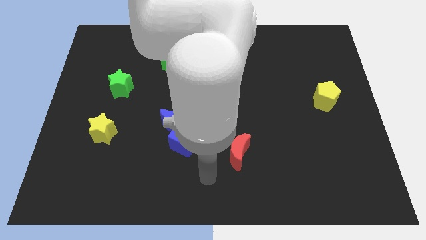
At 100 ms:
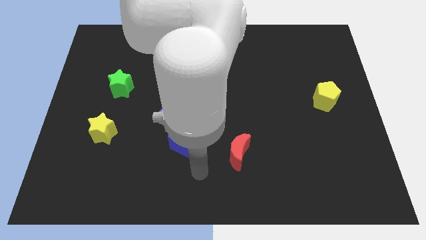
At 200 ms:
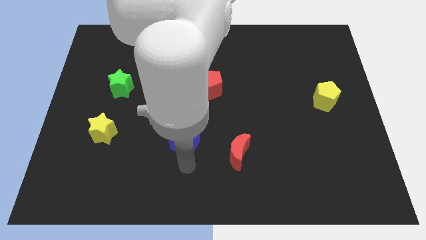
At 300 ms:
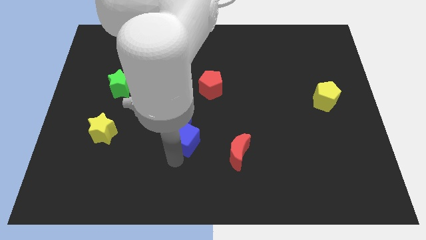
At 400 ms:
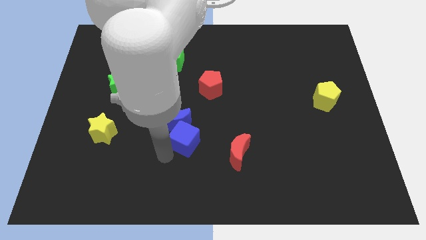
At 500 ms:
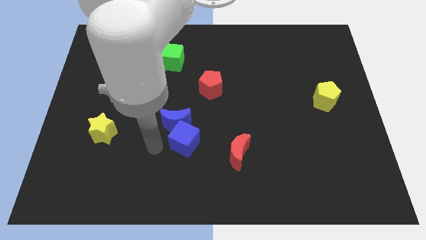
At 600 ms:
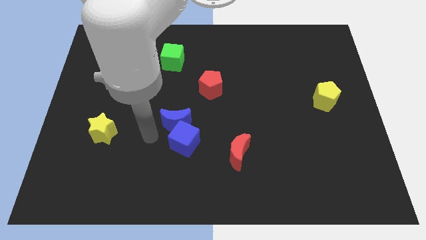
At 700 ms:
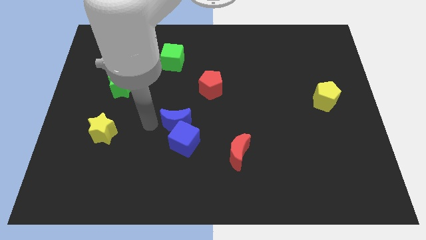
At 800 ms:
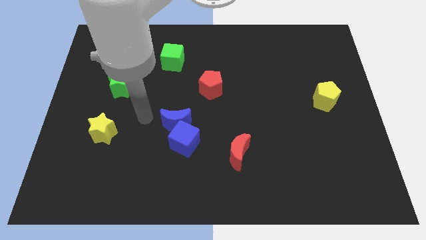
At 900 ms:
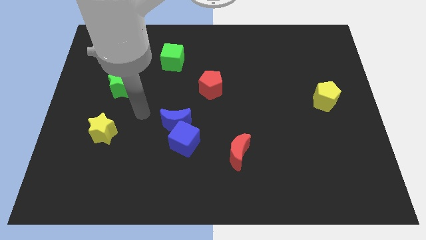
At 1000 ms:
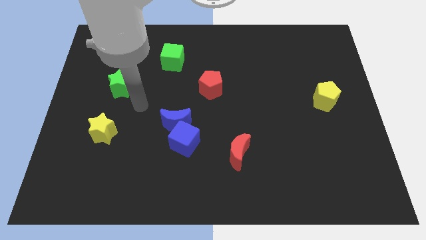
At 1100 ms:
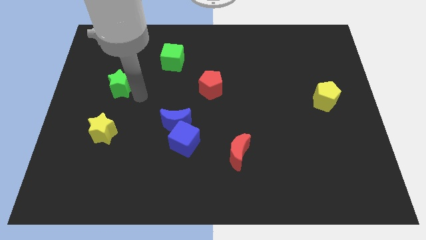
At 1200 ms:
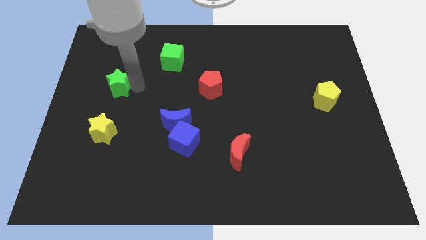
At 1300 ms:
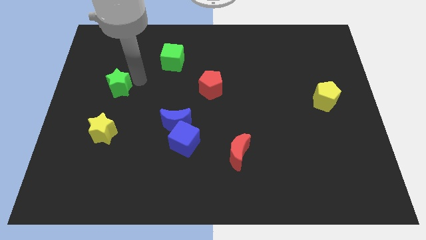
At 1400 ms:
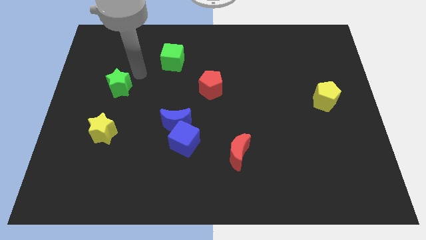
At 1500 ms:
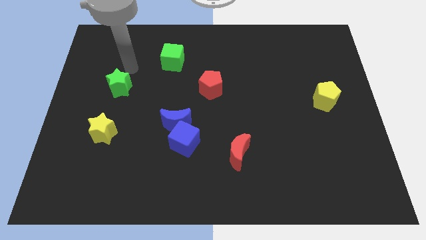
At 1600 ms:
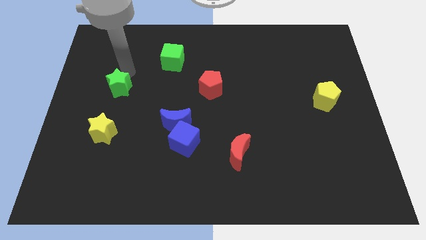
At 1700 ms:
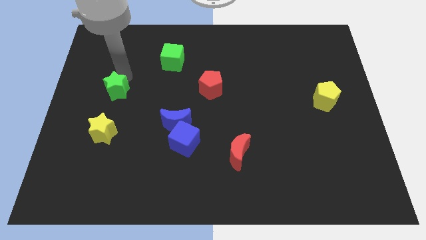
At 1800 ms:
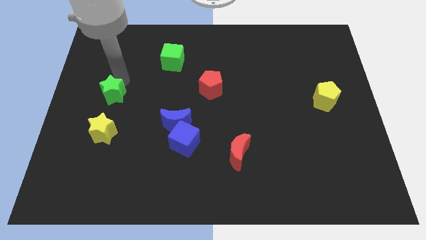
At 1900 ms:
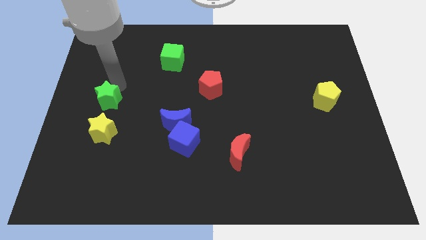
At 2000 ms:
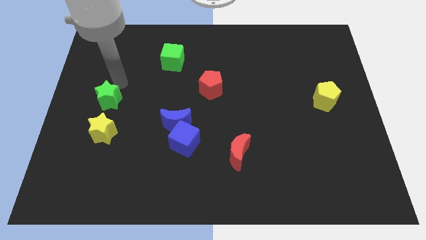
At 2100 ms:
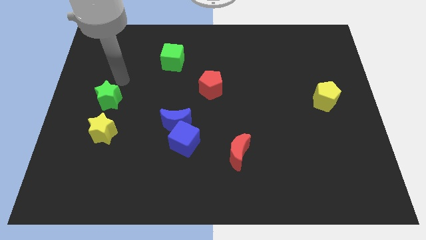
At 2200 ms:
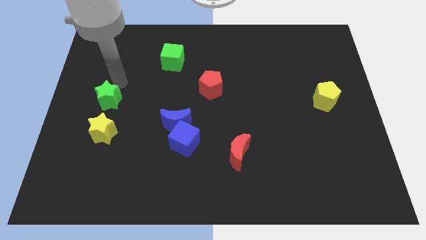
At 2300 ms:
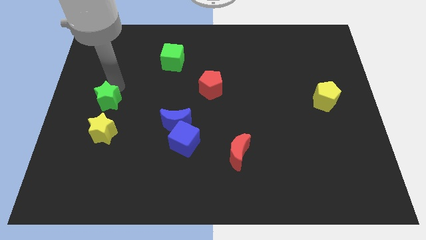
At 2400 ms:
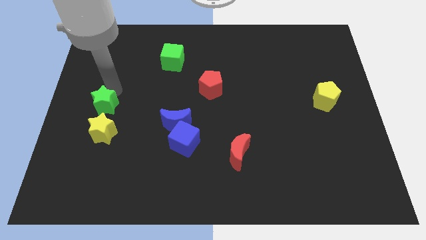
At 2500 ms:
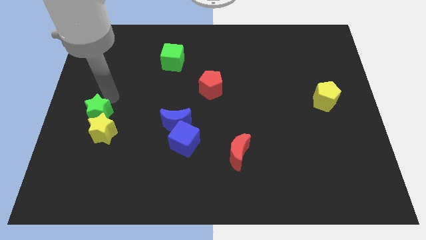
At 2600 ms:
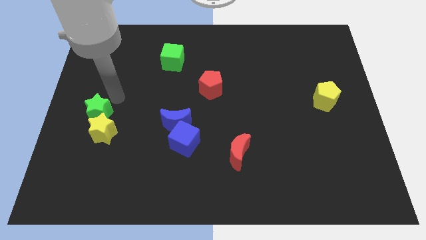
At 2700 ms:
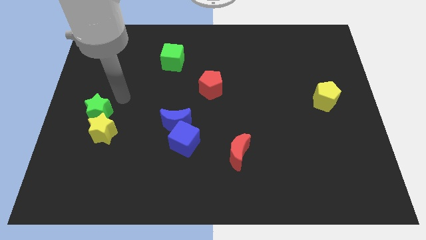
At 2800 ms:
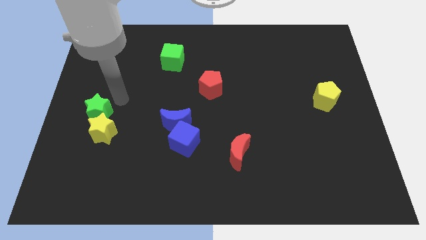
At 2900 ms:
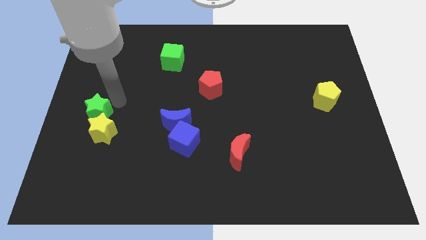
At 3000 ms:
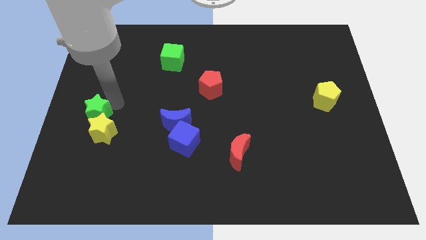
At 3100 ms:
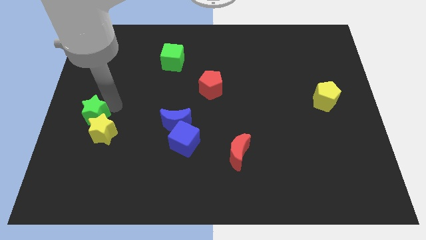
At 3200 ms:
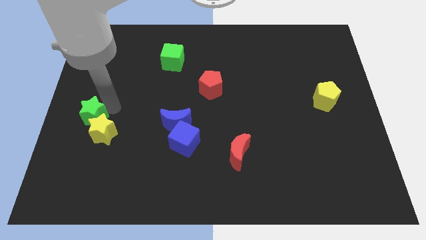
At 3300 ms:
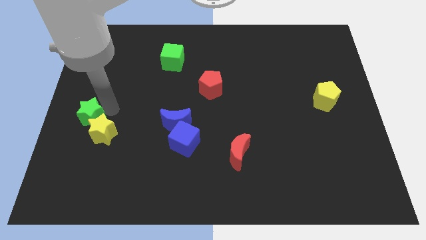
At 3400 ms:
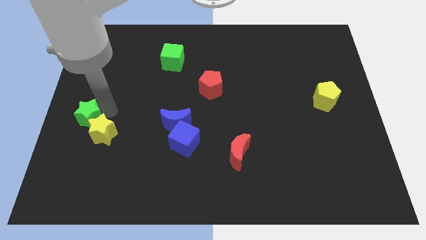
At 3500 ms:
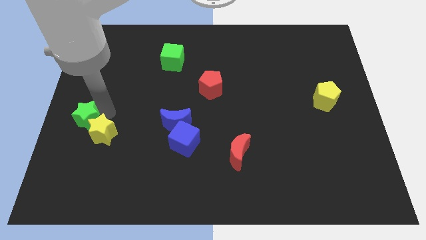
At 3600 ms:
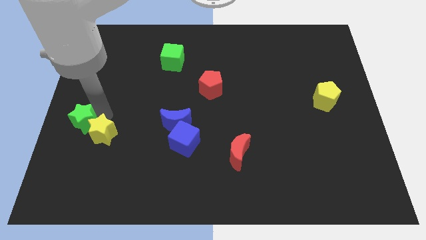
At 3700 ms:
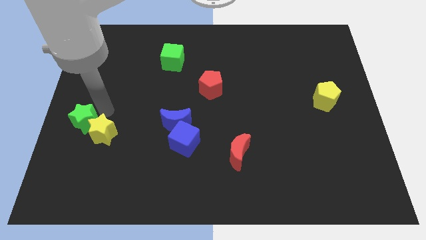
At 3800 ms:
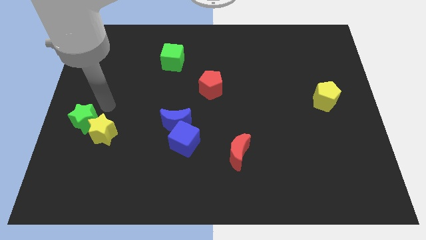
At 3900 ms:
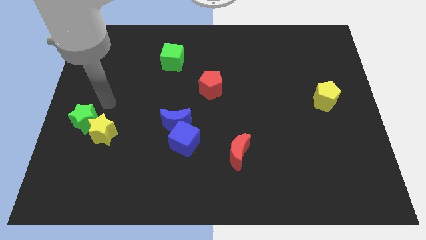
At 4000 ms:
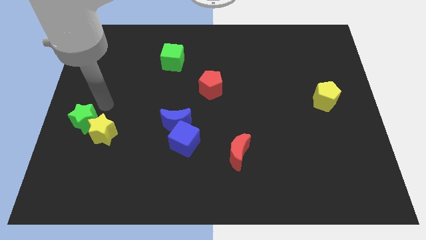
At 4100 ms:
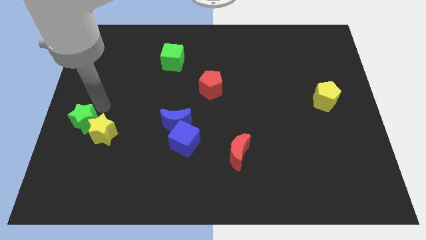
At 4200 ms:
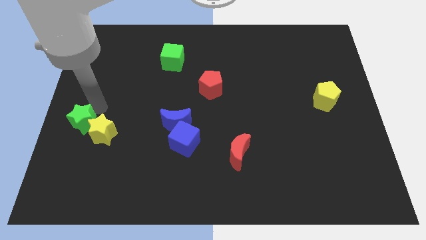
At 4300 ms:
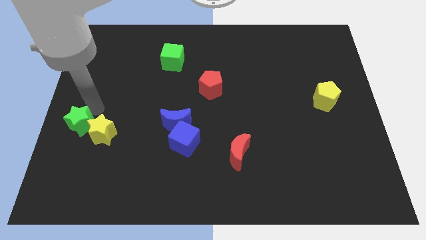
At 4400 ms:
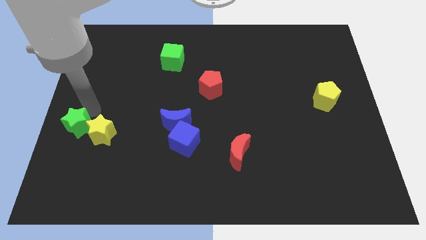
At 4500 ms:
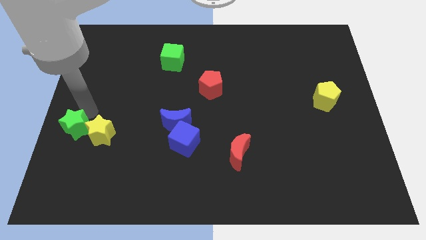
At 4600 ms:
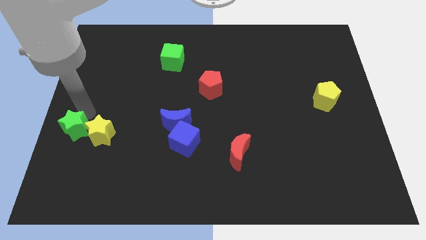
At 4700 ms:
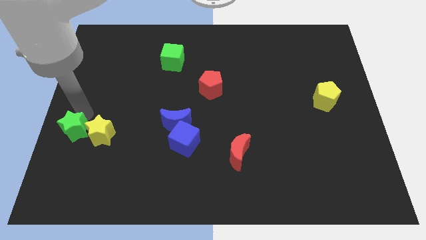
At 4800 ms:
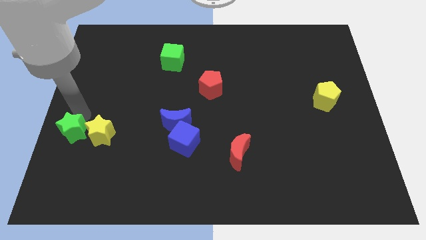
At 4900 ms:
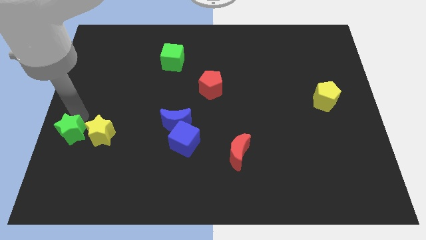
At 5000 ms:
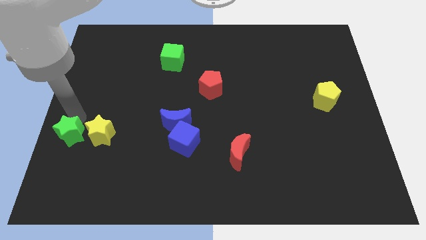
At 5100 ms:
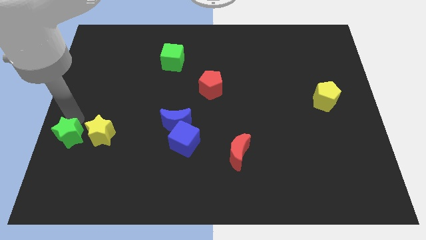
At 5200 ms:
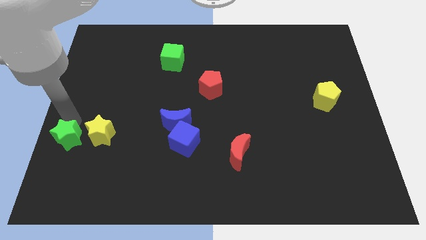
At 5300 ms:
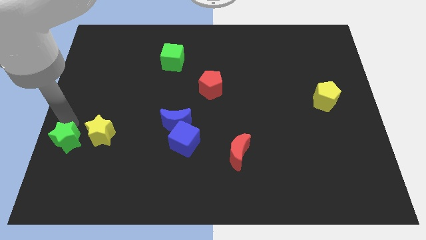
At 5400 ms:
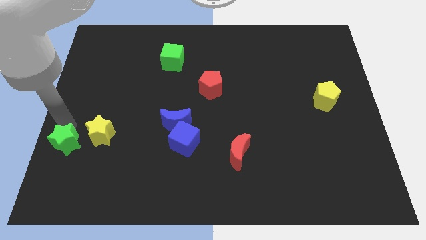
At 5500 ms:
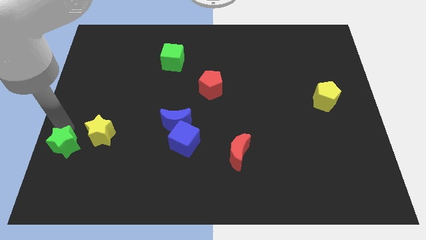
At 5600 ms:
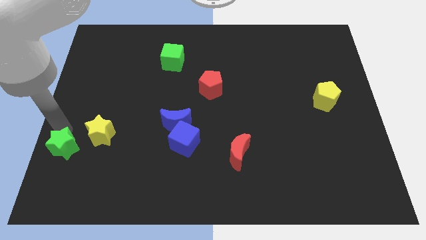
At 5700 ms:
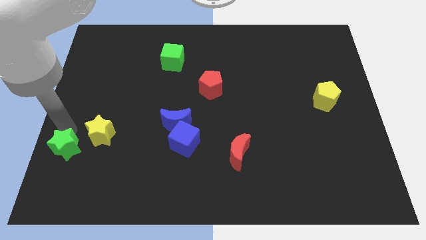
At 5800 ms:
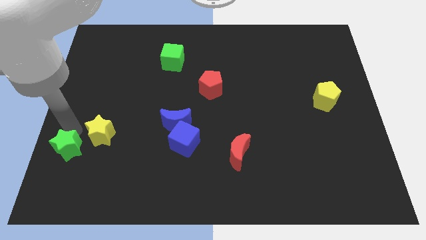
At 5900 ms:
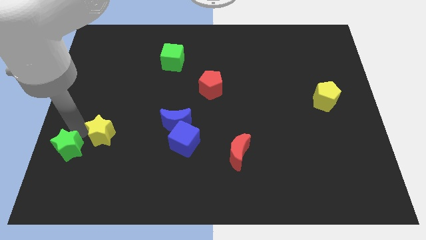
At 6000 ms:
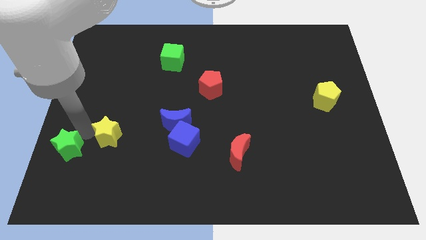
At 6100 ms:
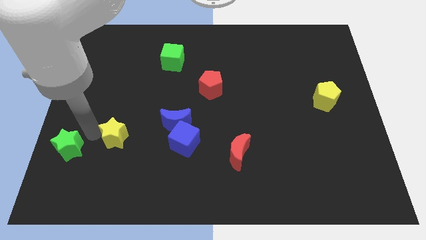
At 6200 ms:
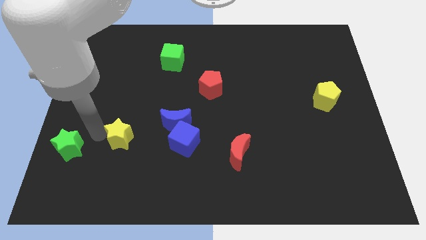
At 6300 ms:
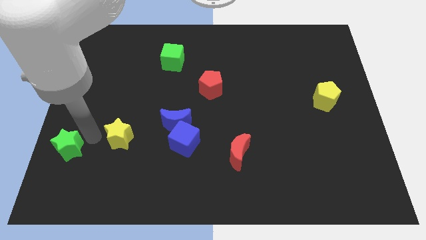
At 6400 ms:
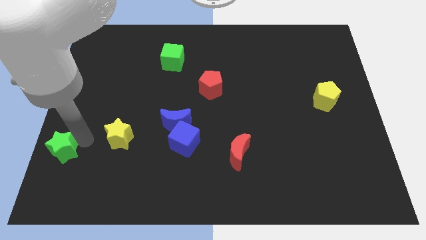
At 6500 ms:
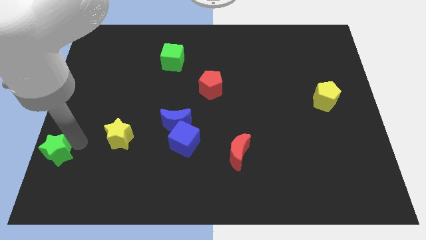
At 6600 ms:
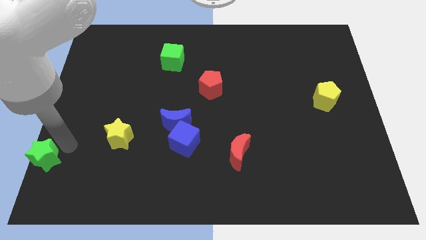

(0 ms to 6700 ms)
slide the green star to the bottom left

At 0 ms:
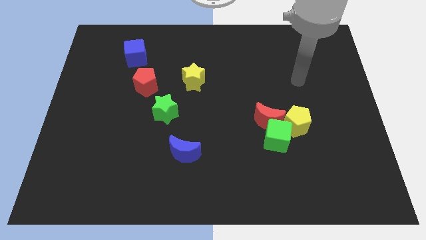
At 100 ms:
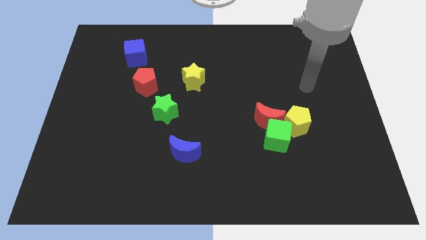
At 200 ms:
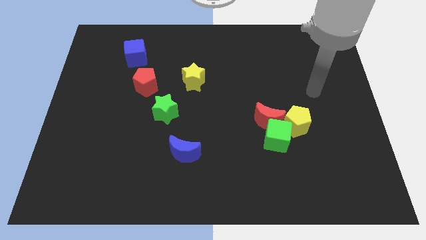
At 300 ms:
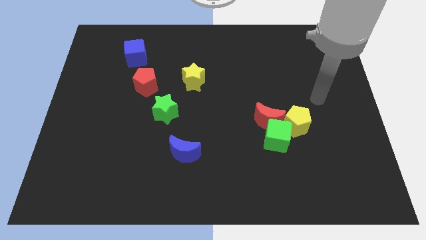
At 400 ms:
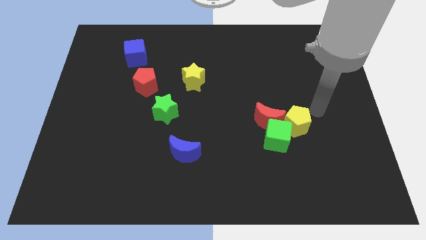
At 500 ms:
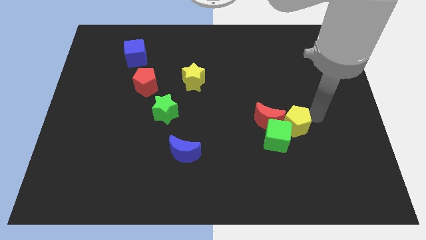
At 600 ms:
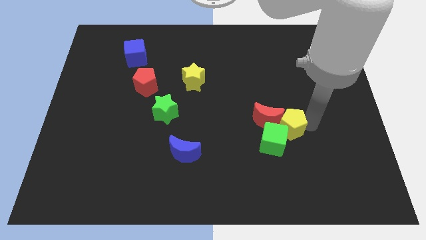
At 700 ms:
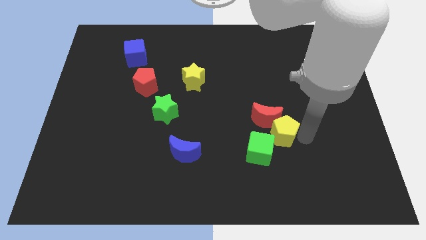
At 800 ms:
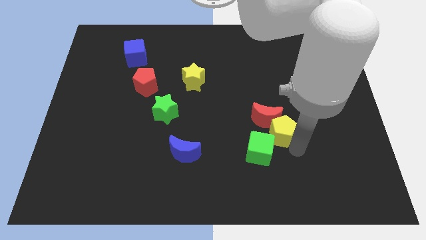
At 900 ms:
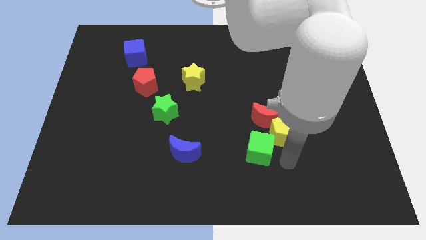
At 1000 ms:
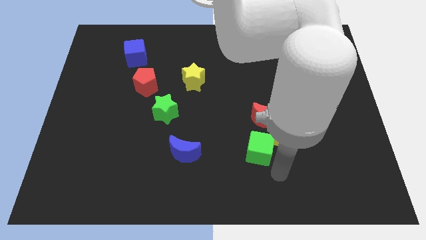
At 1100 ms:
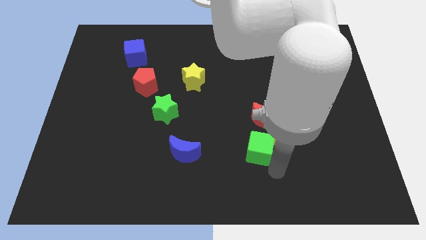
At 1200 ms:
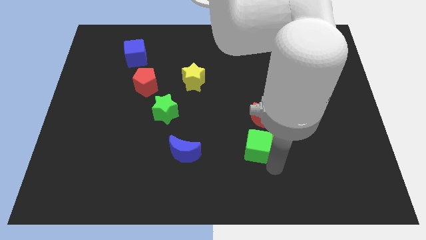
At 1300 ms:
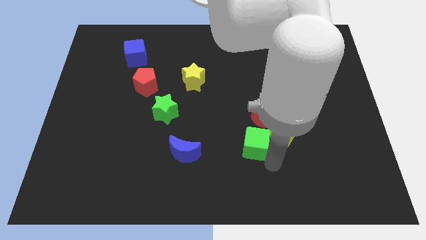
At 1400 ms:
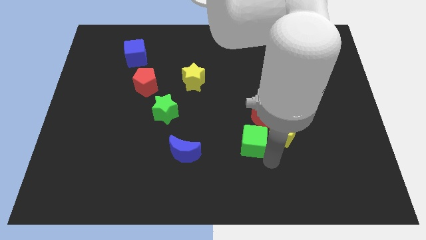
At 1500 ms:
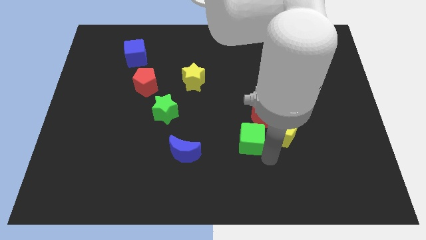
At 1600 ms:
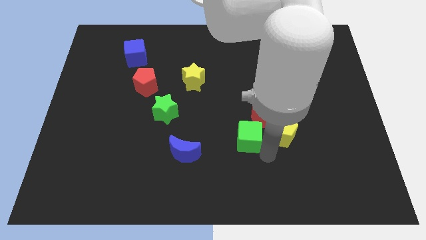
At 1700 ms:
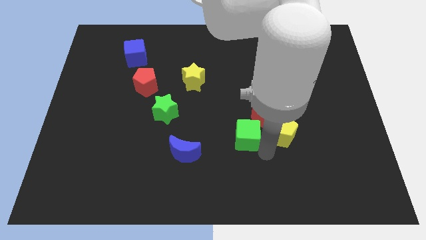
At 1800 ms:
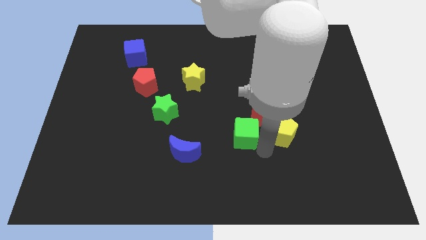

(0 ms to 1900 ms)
slide the green cube to the center
